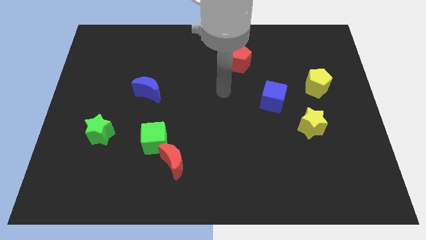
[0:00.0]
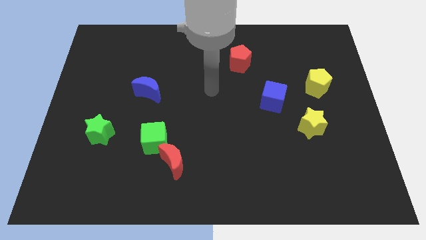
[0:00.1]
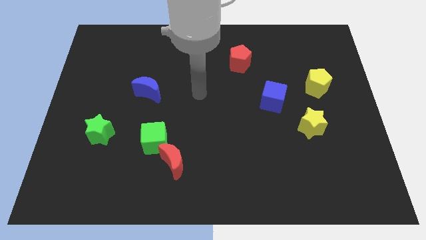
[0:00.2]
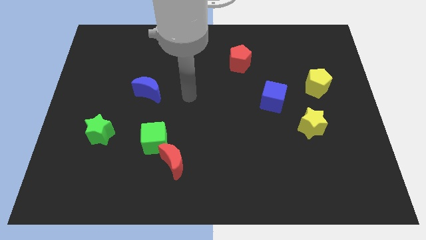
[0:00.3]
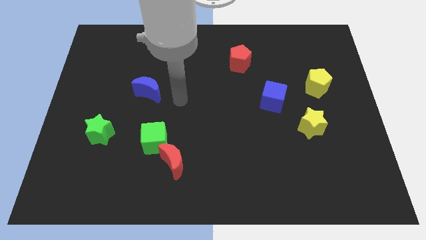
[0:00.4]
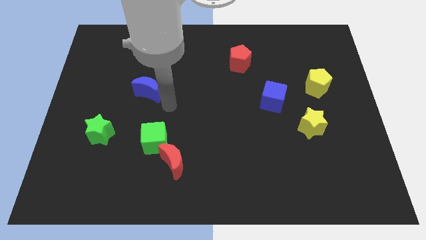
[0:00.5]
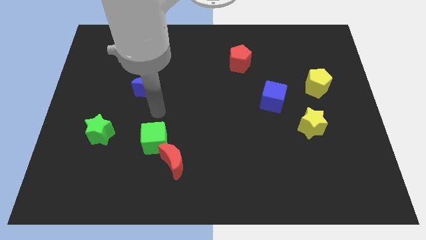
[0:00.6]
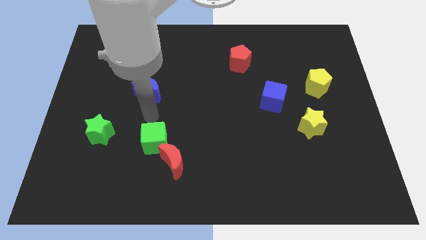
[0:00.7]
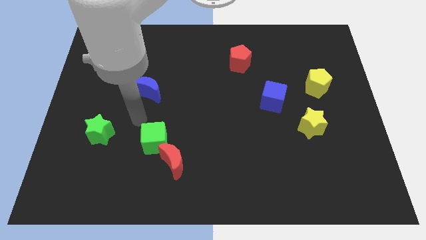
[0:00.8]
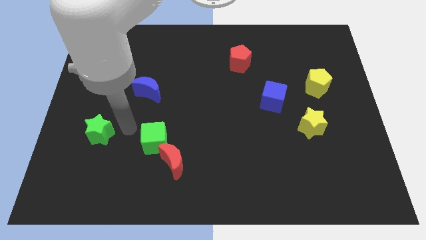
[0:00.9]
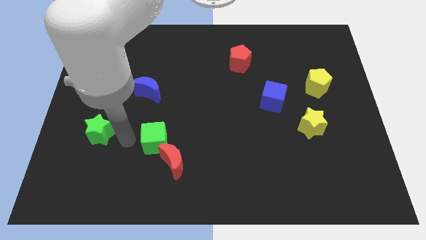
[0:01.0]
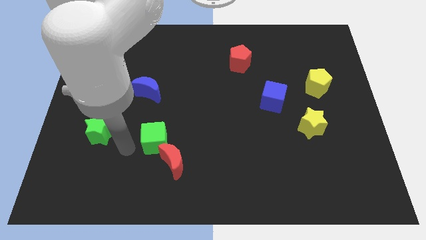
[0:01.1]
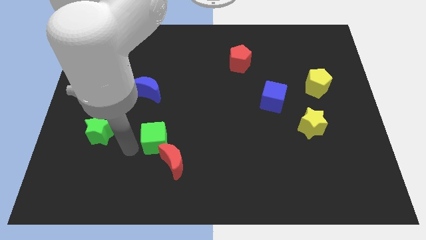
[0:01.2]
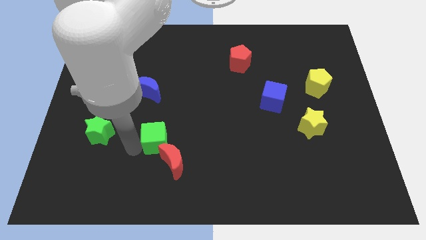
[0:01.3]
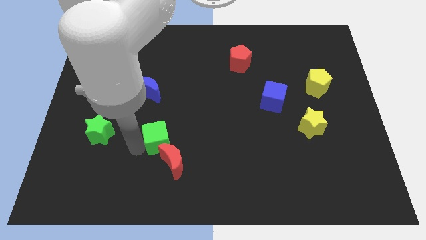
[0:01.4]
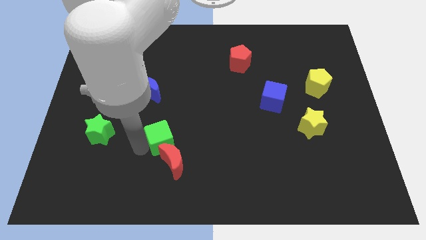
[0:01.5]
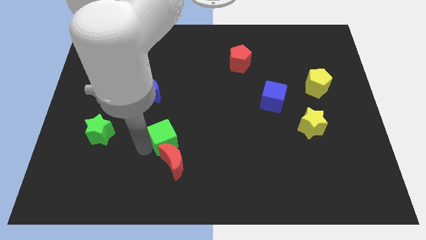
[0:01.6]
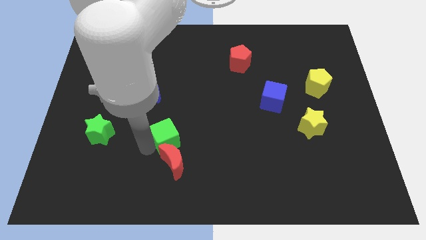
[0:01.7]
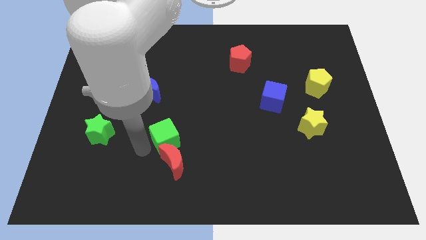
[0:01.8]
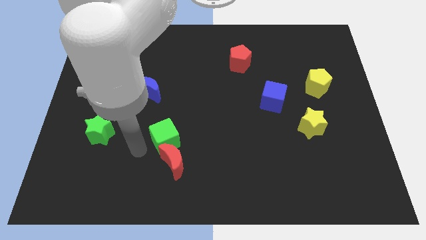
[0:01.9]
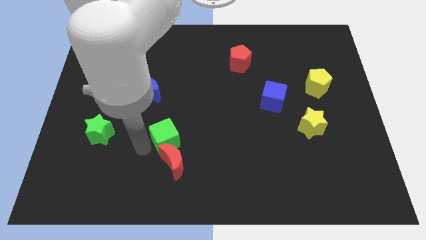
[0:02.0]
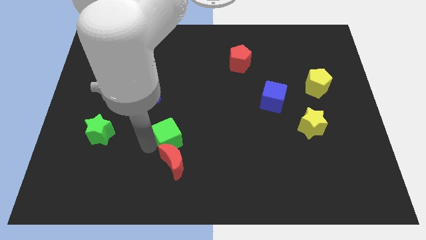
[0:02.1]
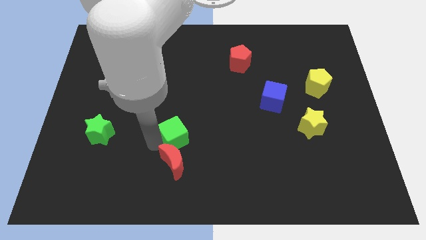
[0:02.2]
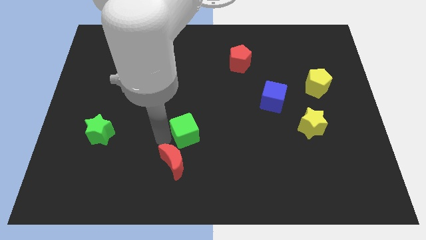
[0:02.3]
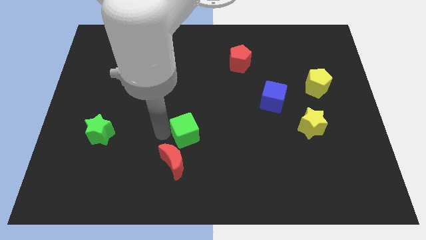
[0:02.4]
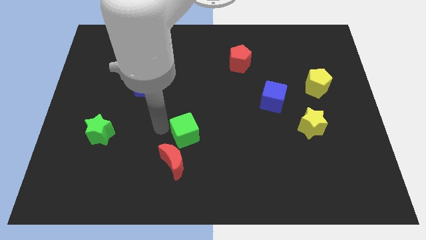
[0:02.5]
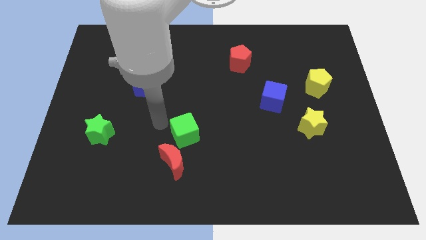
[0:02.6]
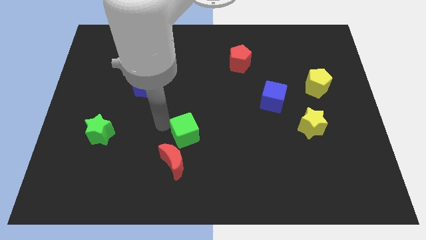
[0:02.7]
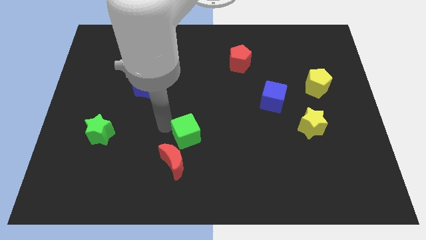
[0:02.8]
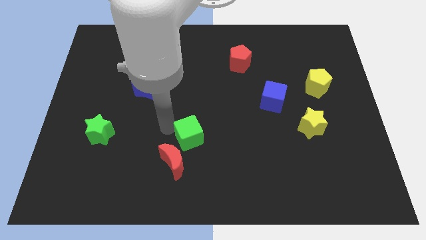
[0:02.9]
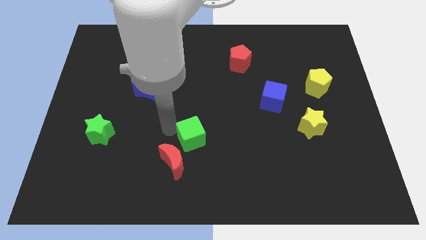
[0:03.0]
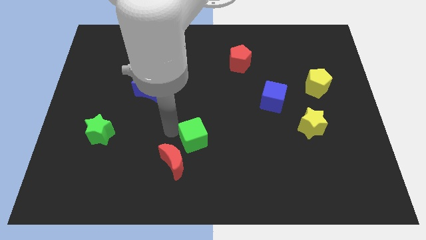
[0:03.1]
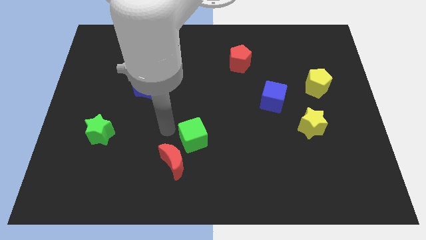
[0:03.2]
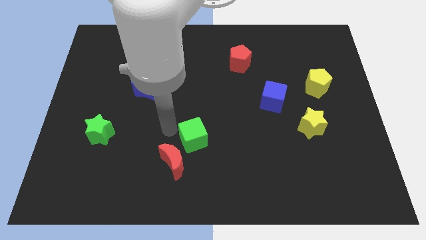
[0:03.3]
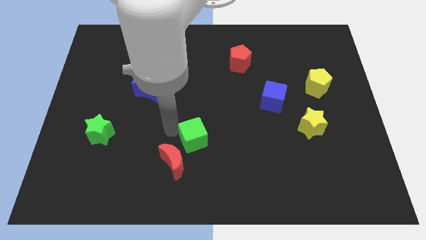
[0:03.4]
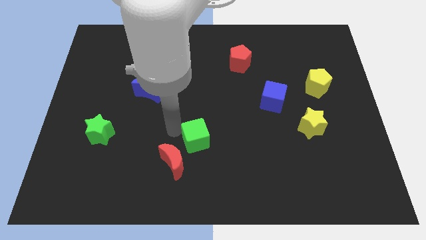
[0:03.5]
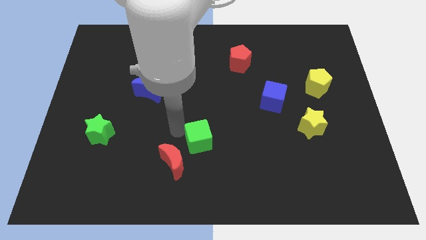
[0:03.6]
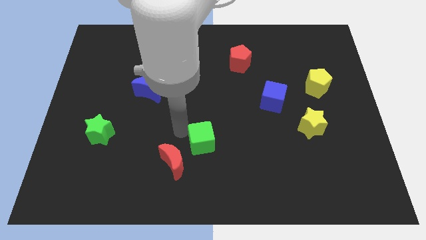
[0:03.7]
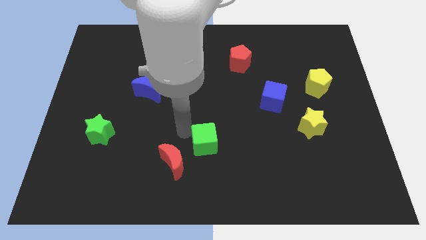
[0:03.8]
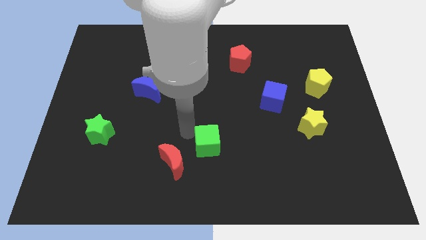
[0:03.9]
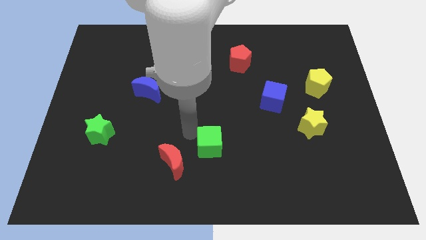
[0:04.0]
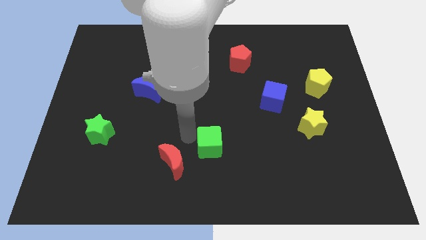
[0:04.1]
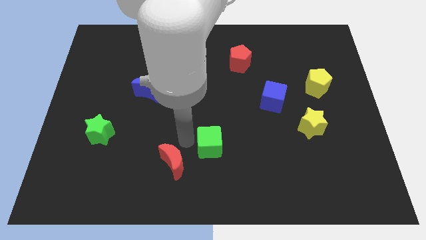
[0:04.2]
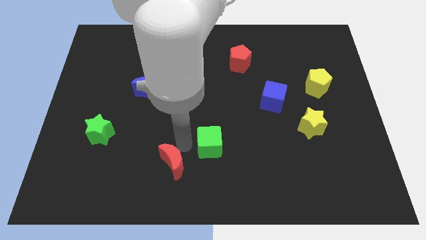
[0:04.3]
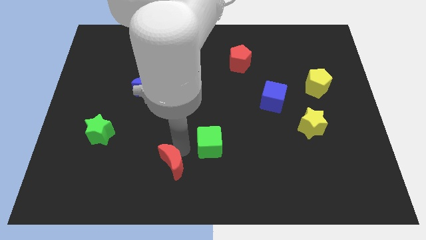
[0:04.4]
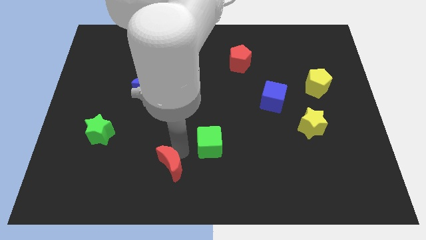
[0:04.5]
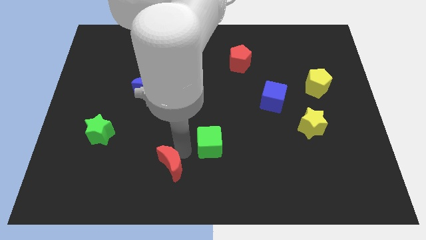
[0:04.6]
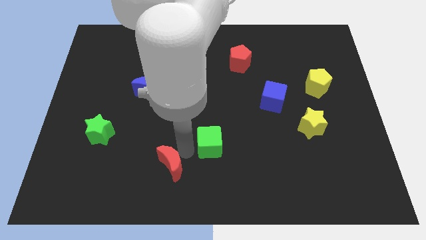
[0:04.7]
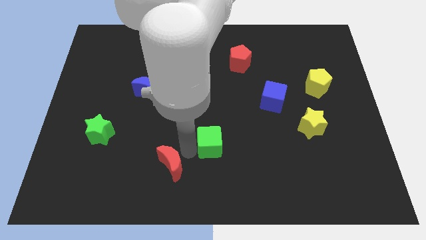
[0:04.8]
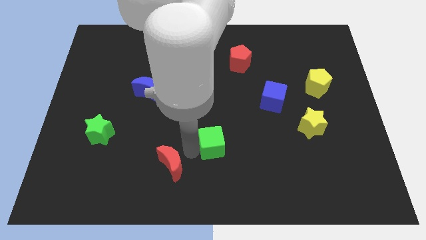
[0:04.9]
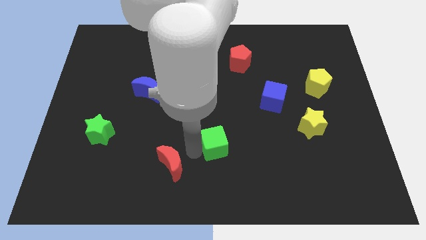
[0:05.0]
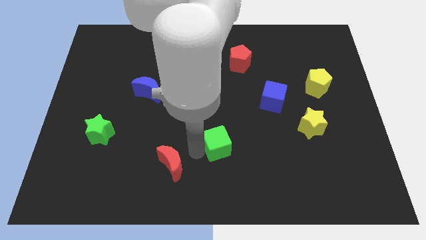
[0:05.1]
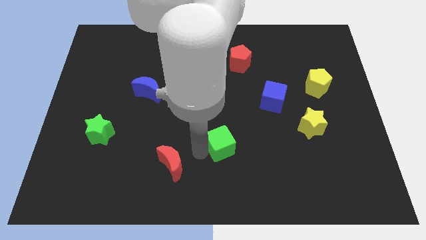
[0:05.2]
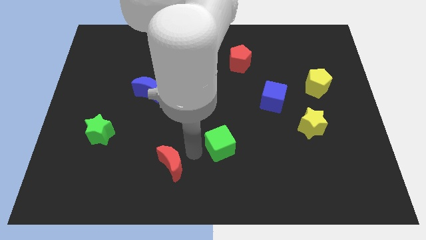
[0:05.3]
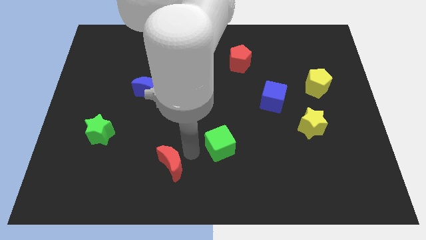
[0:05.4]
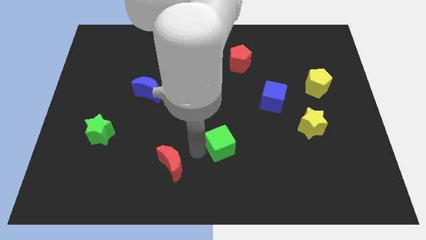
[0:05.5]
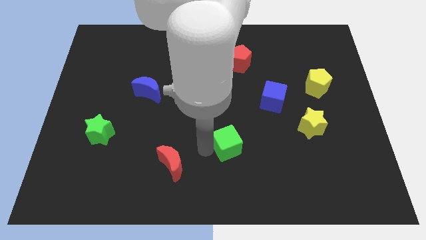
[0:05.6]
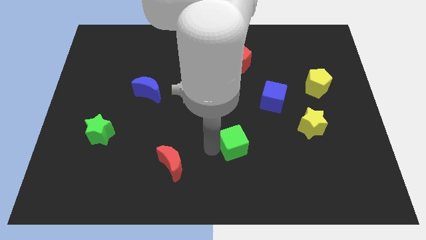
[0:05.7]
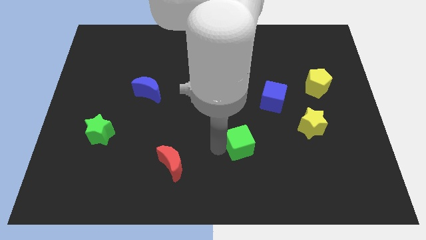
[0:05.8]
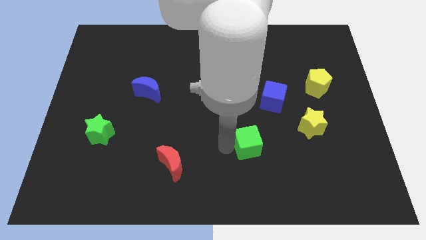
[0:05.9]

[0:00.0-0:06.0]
move the green cube right

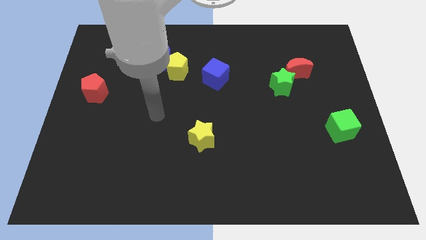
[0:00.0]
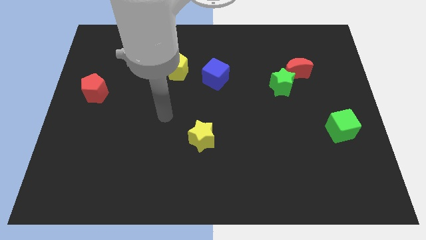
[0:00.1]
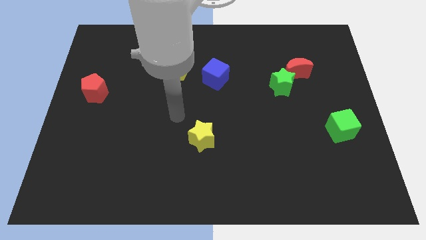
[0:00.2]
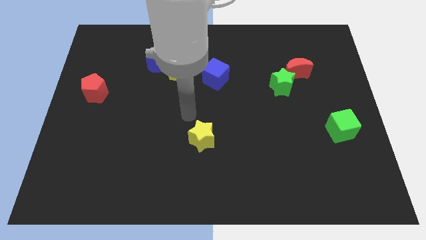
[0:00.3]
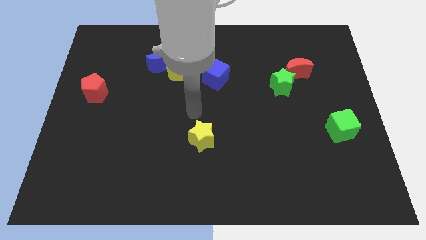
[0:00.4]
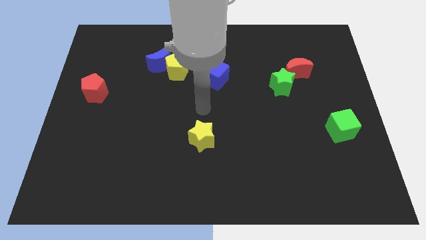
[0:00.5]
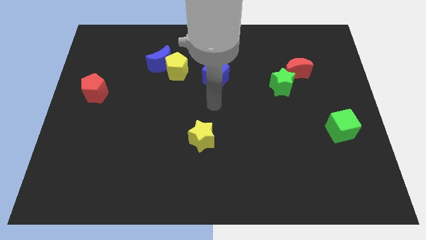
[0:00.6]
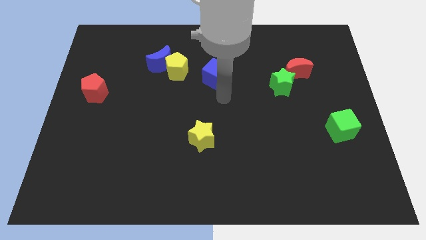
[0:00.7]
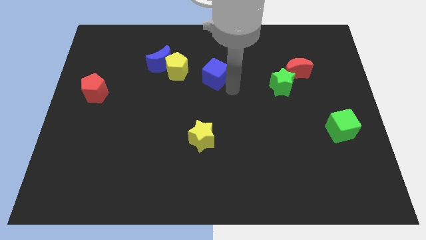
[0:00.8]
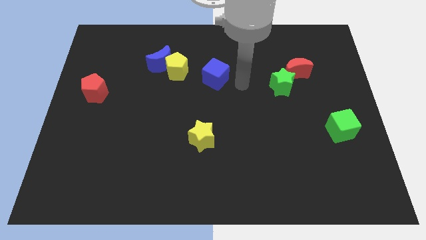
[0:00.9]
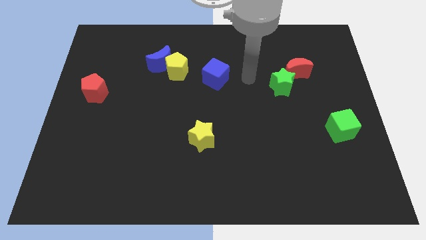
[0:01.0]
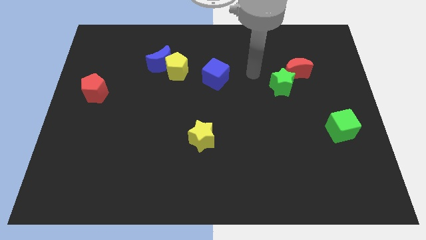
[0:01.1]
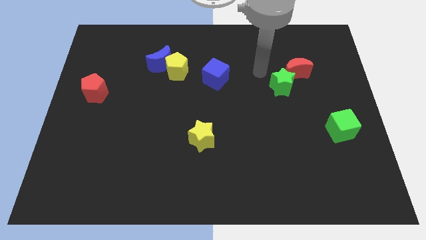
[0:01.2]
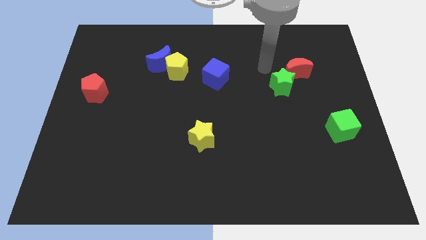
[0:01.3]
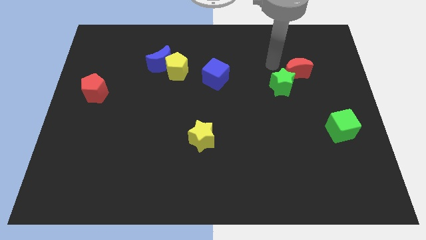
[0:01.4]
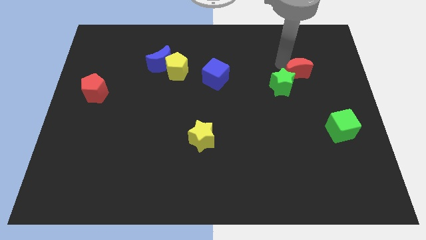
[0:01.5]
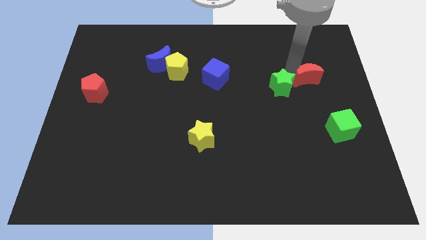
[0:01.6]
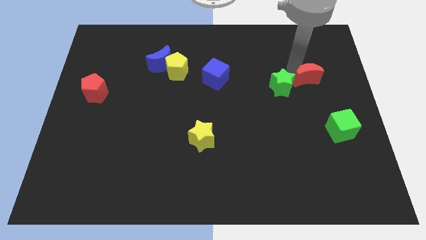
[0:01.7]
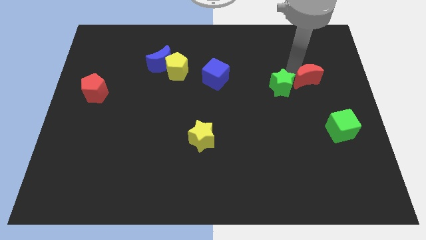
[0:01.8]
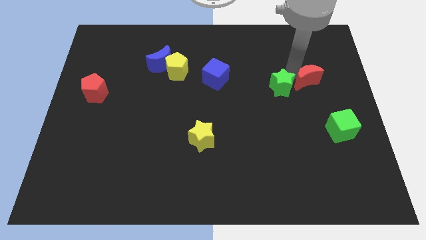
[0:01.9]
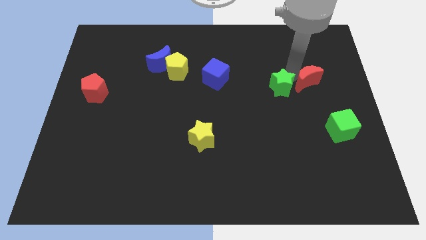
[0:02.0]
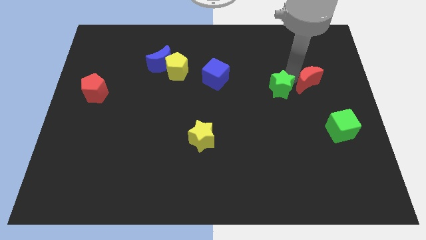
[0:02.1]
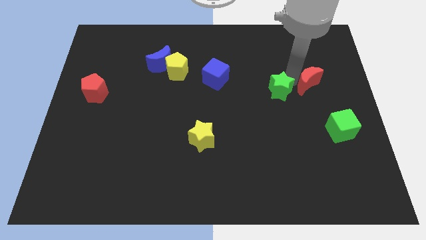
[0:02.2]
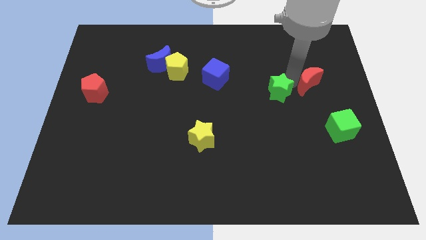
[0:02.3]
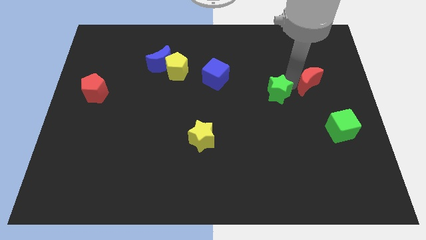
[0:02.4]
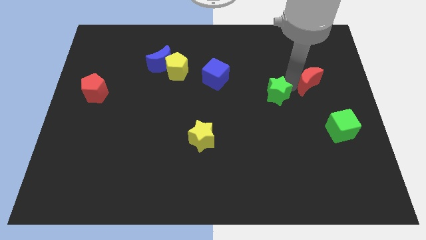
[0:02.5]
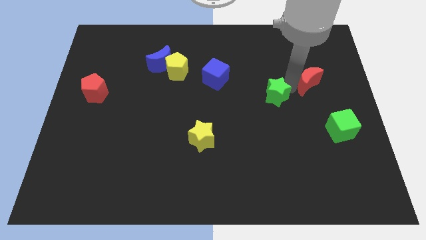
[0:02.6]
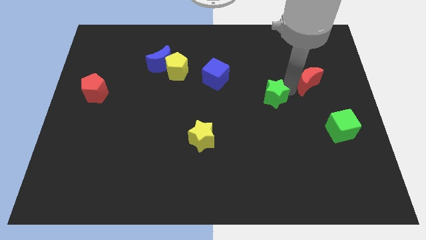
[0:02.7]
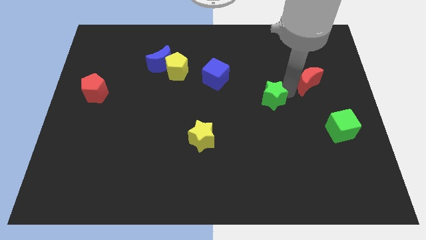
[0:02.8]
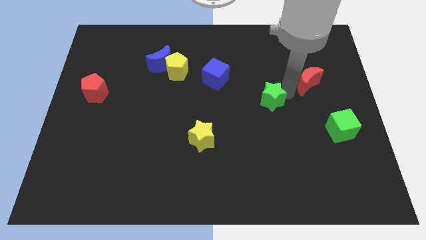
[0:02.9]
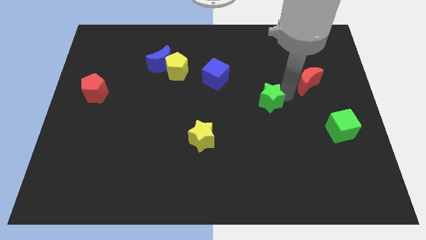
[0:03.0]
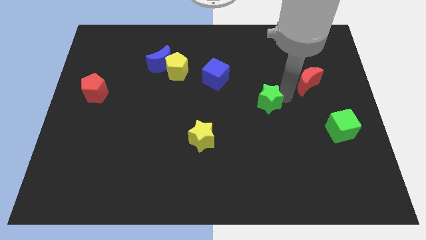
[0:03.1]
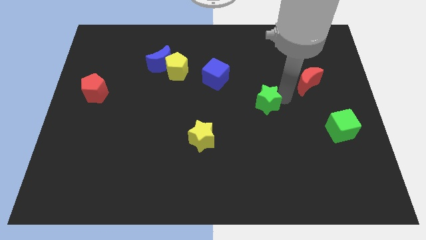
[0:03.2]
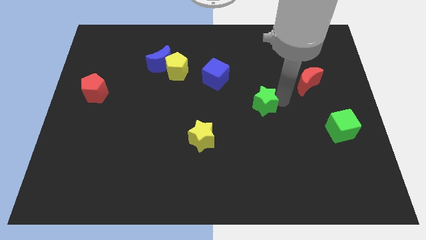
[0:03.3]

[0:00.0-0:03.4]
slightly move the green star diagonally downwards and left
